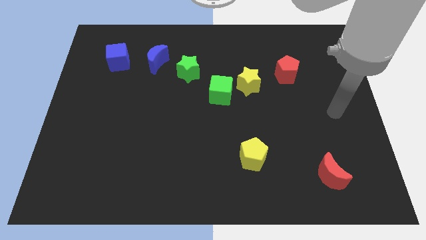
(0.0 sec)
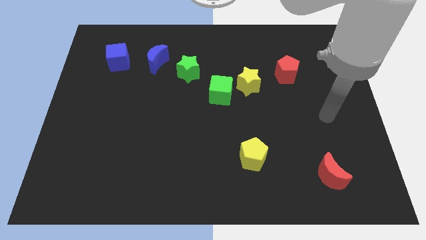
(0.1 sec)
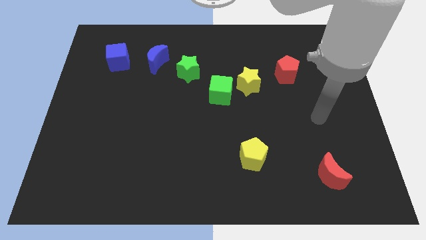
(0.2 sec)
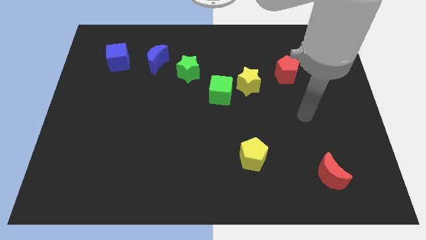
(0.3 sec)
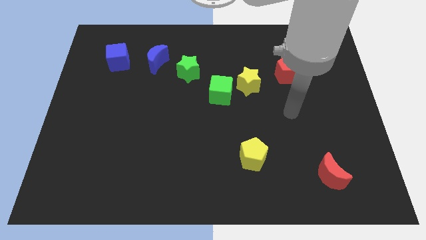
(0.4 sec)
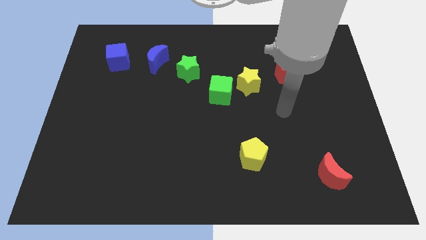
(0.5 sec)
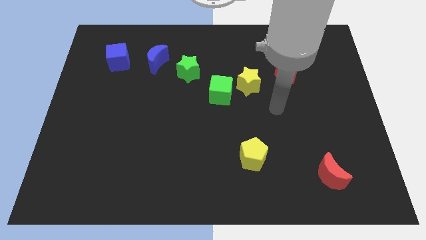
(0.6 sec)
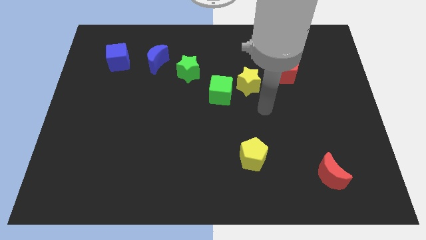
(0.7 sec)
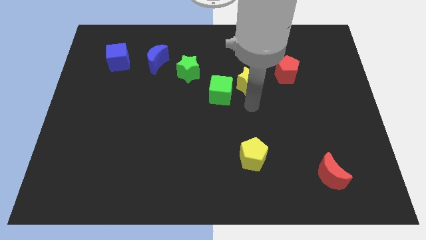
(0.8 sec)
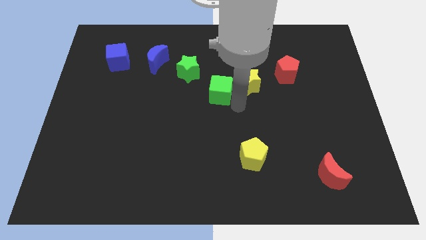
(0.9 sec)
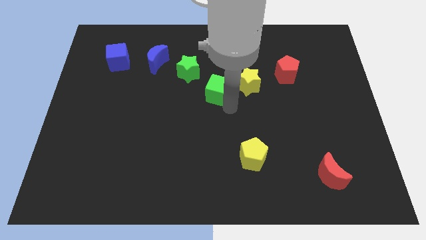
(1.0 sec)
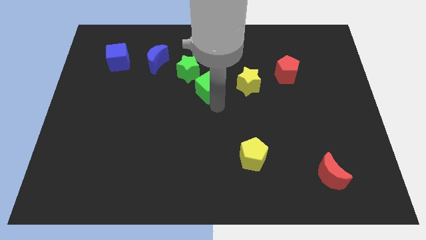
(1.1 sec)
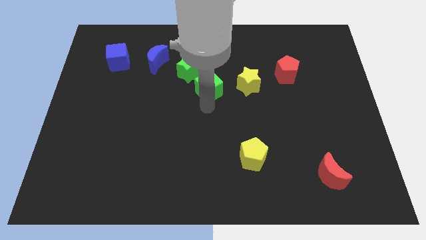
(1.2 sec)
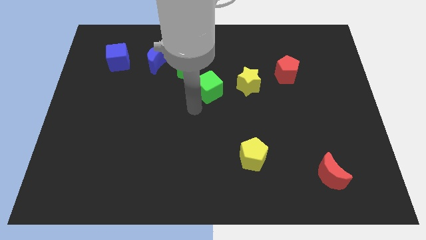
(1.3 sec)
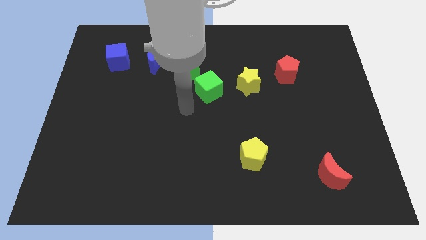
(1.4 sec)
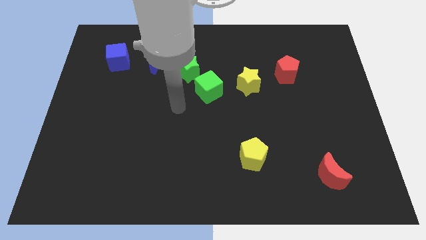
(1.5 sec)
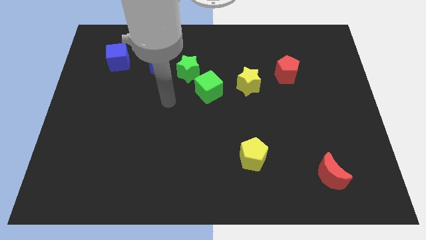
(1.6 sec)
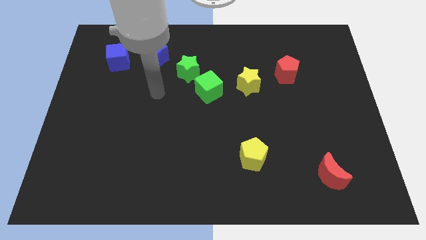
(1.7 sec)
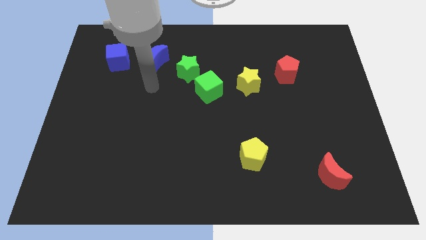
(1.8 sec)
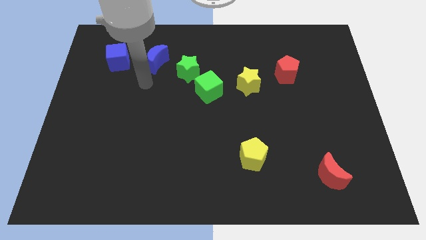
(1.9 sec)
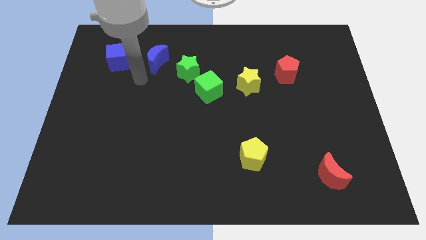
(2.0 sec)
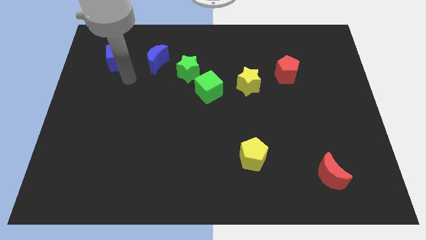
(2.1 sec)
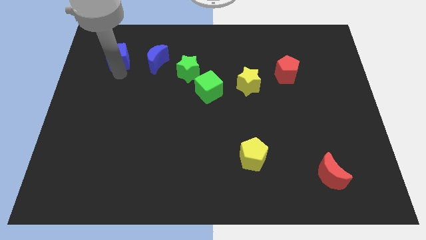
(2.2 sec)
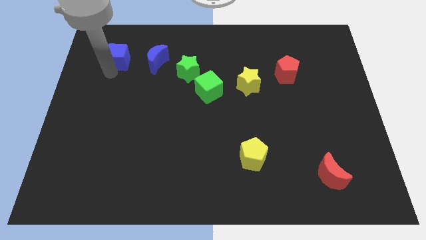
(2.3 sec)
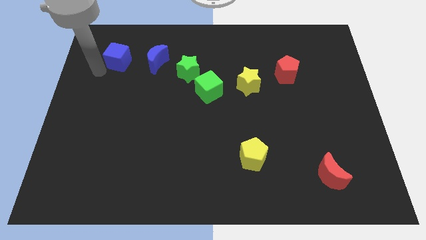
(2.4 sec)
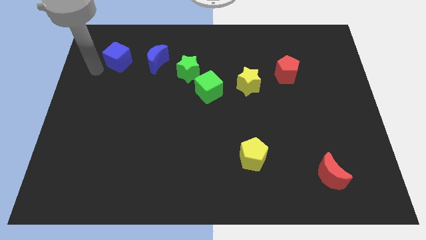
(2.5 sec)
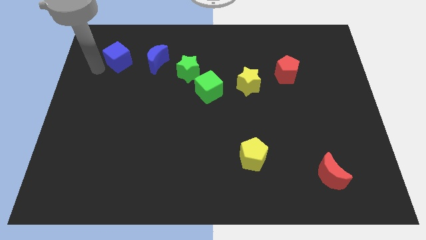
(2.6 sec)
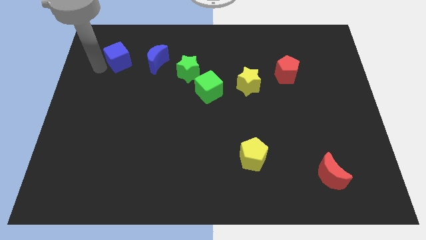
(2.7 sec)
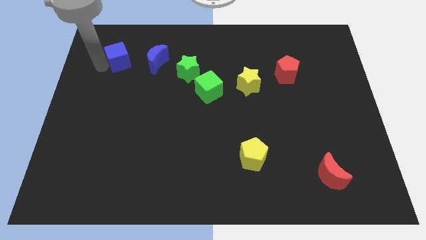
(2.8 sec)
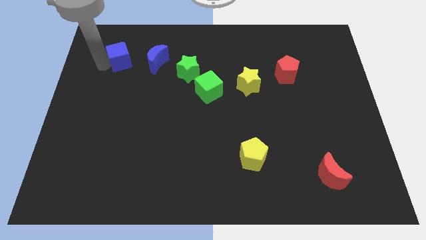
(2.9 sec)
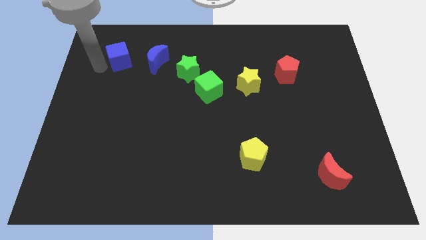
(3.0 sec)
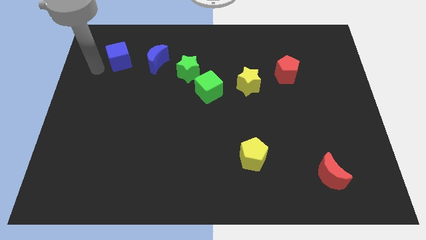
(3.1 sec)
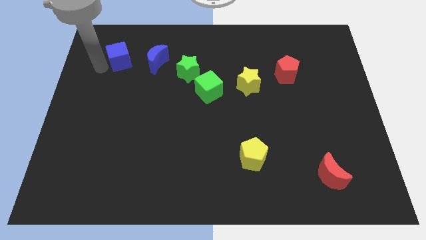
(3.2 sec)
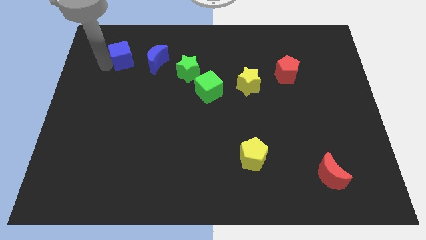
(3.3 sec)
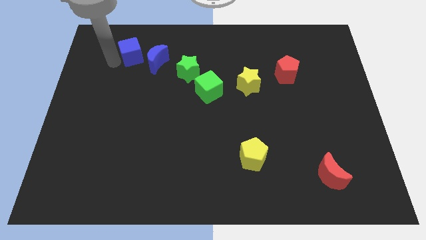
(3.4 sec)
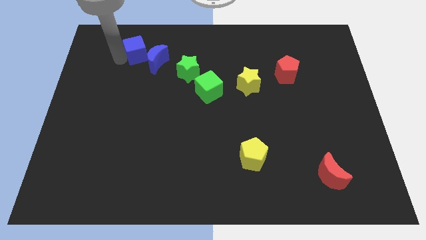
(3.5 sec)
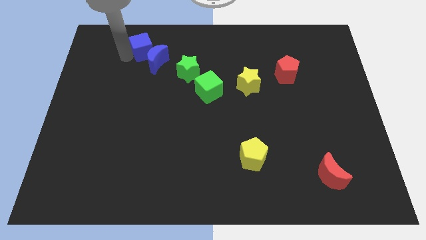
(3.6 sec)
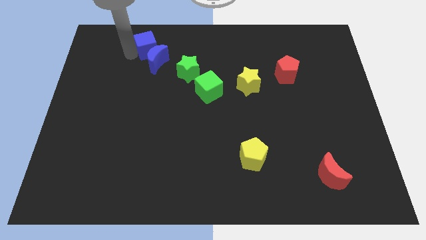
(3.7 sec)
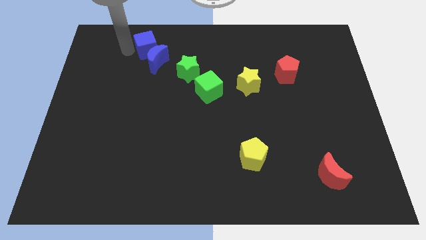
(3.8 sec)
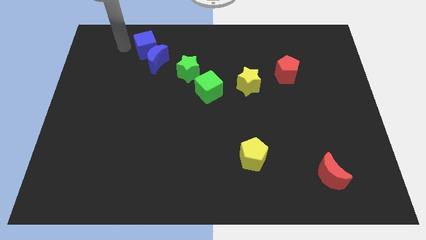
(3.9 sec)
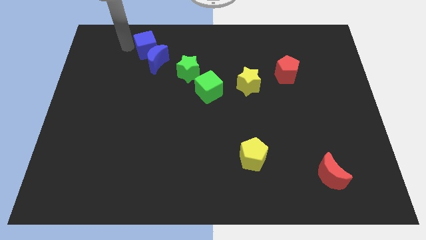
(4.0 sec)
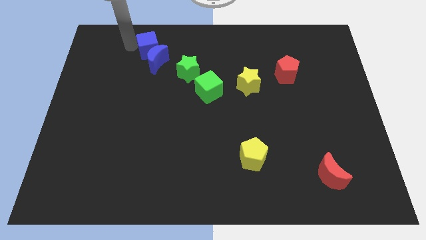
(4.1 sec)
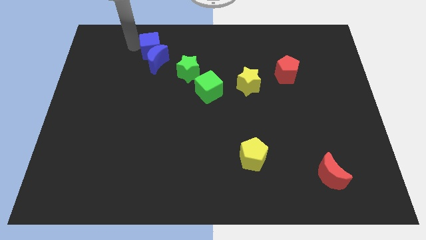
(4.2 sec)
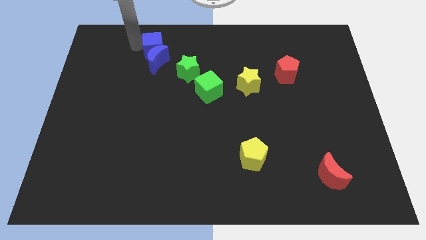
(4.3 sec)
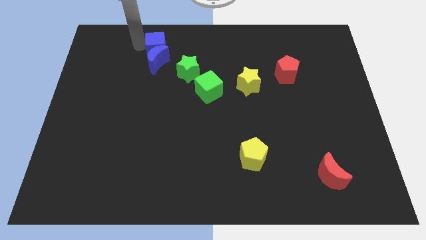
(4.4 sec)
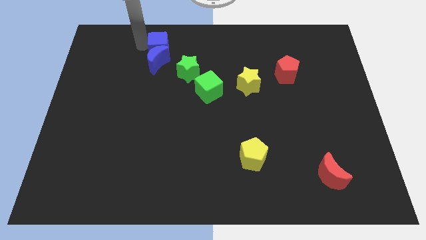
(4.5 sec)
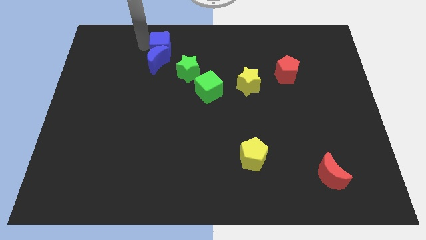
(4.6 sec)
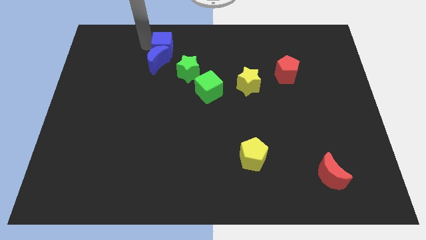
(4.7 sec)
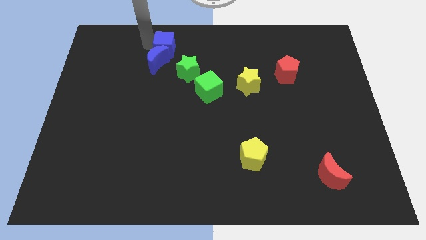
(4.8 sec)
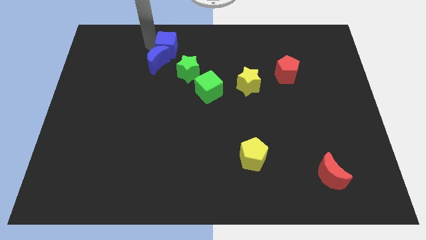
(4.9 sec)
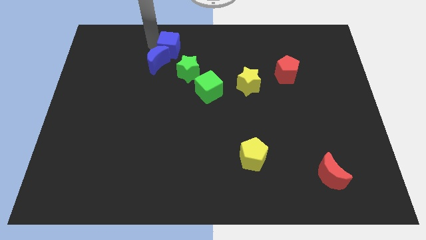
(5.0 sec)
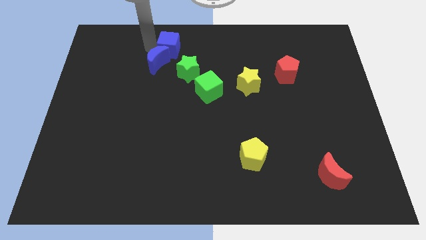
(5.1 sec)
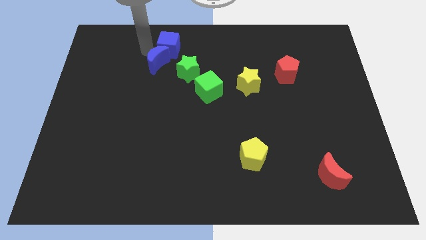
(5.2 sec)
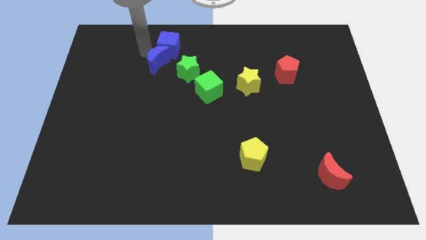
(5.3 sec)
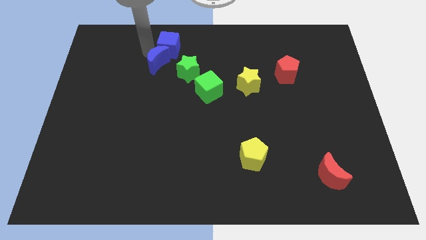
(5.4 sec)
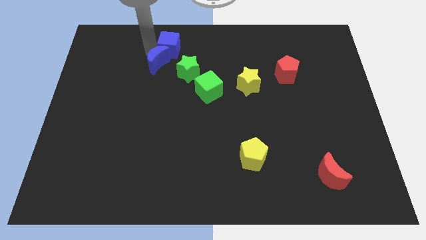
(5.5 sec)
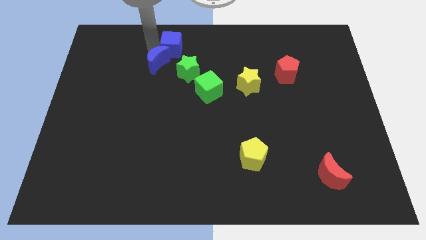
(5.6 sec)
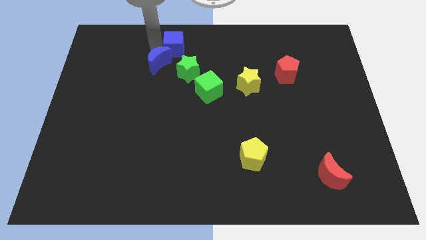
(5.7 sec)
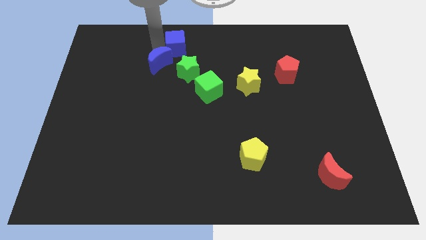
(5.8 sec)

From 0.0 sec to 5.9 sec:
slide the blue cube to the top

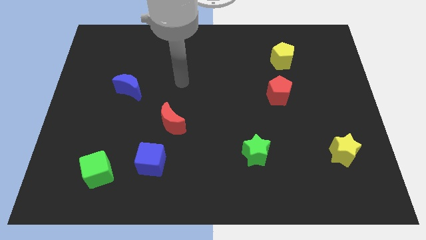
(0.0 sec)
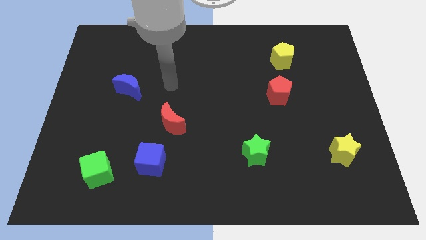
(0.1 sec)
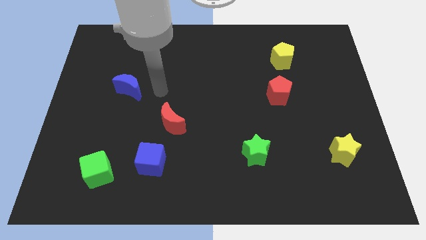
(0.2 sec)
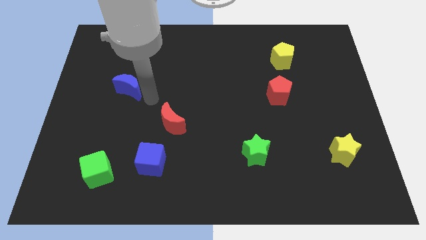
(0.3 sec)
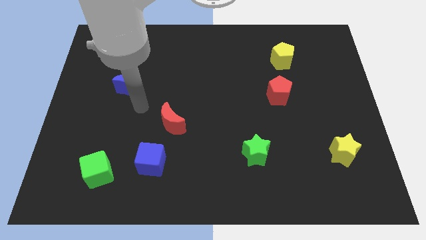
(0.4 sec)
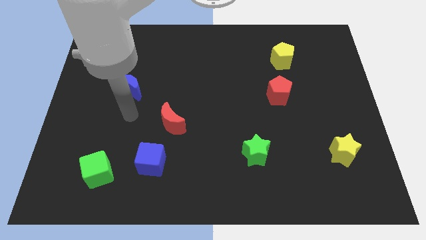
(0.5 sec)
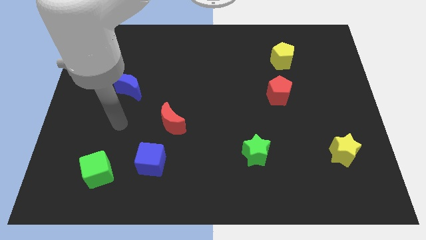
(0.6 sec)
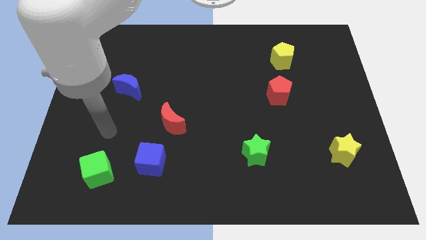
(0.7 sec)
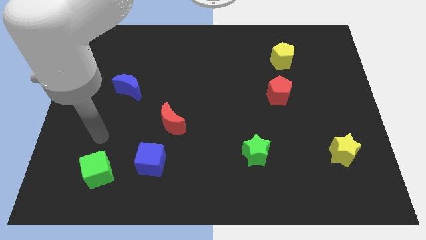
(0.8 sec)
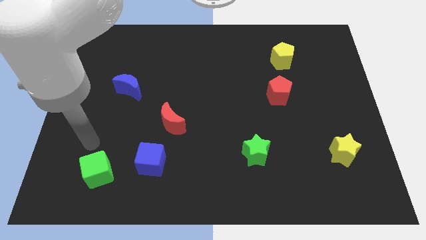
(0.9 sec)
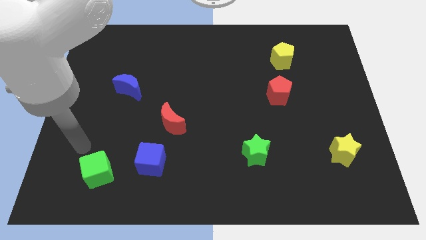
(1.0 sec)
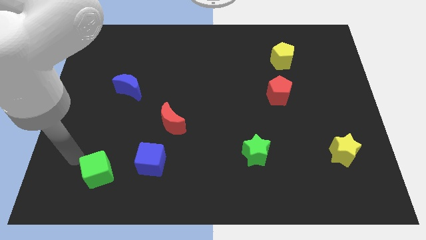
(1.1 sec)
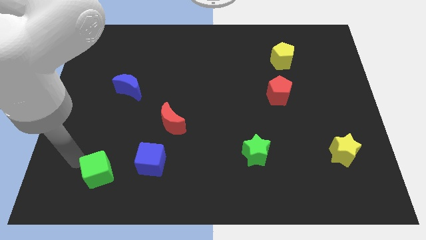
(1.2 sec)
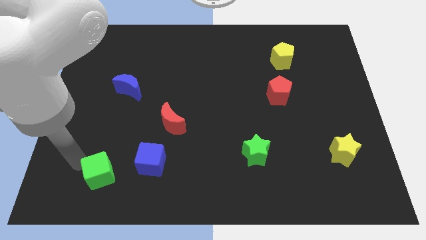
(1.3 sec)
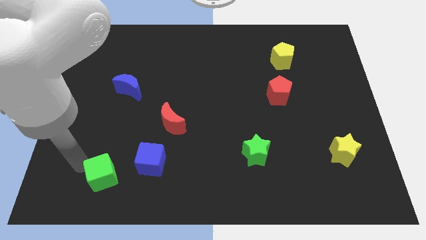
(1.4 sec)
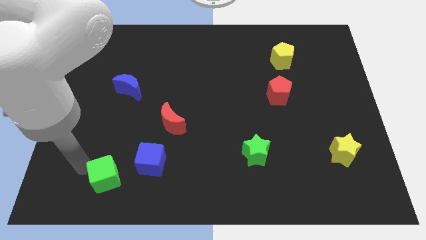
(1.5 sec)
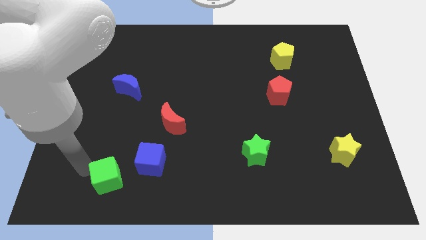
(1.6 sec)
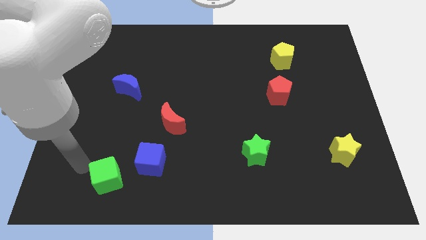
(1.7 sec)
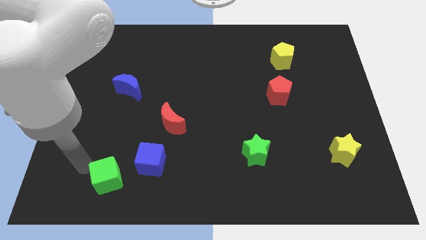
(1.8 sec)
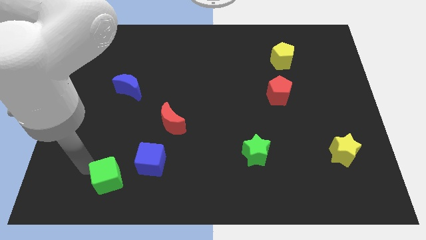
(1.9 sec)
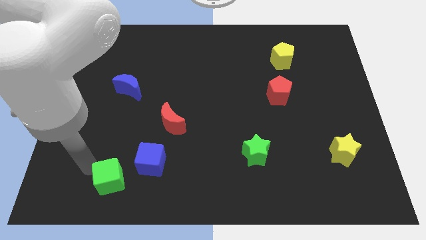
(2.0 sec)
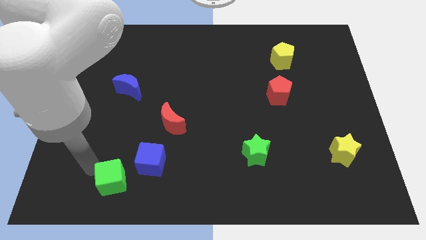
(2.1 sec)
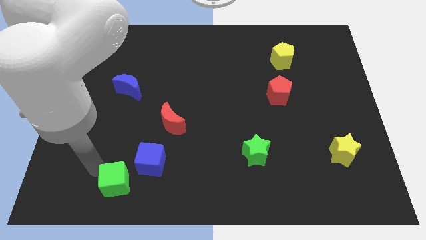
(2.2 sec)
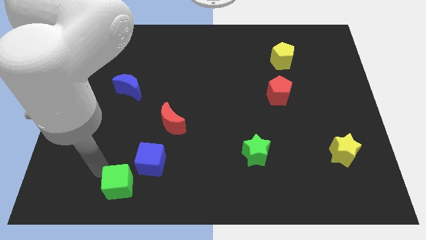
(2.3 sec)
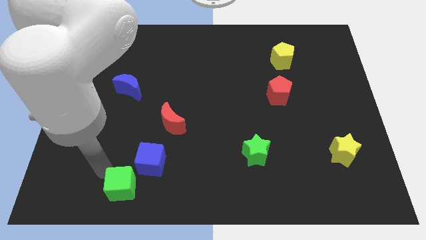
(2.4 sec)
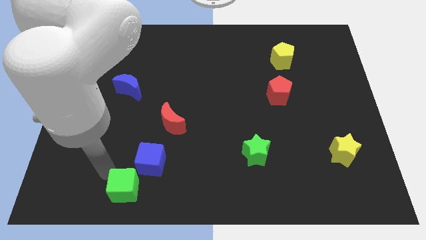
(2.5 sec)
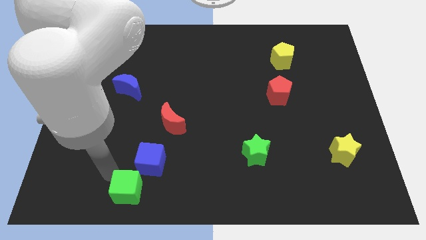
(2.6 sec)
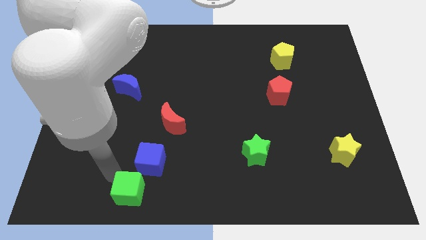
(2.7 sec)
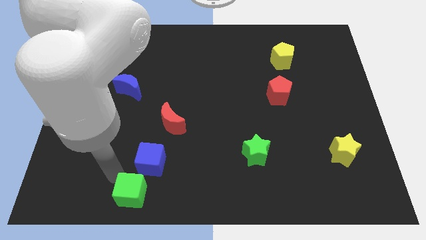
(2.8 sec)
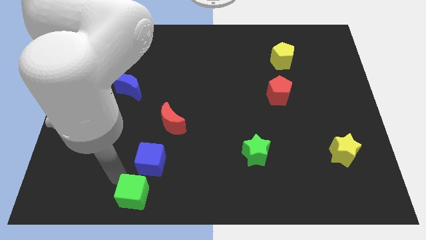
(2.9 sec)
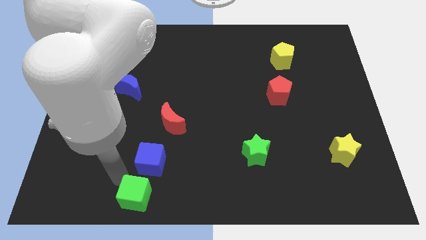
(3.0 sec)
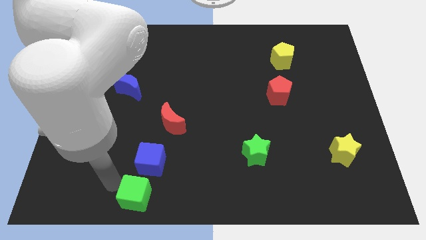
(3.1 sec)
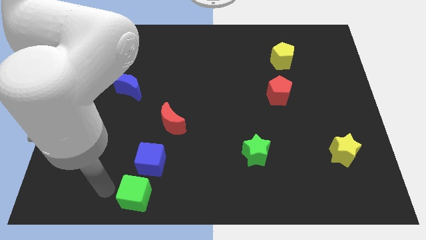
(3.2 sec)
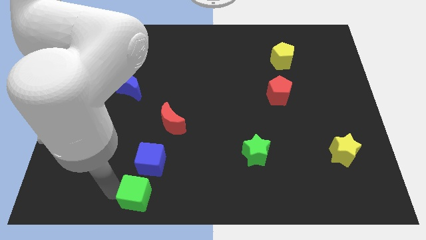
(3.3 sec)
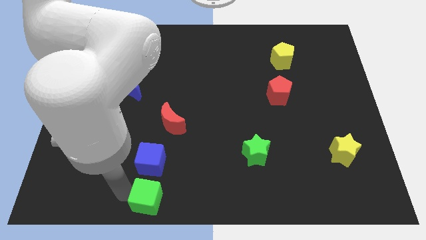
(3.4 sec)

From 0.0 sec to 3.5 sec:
push the green cube to the bottom side
